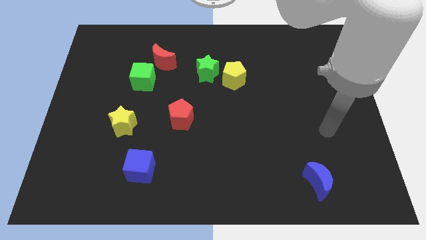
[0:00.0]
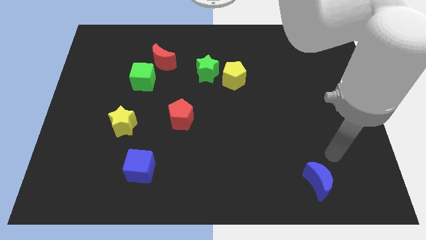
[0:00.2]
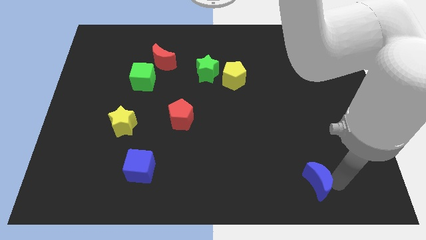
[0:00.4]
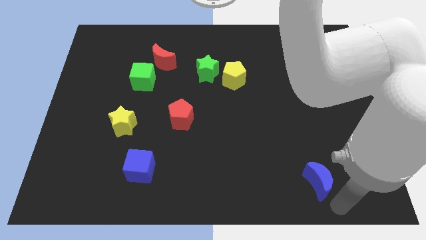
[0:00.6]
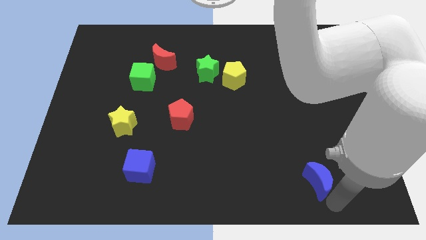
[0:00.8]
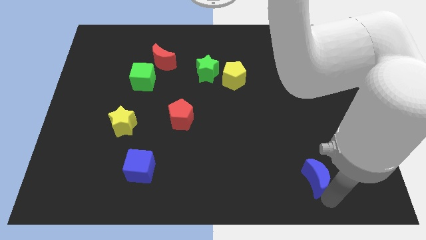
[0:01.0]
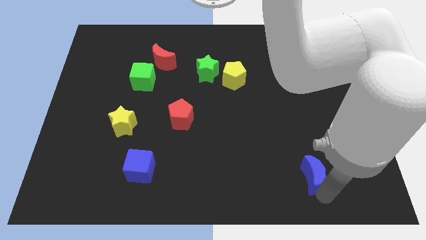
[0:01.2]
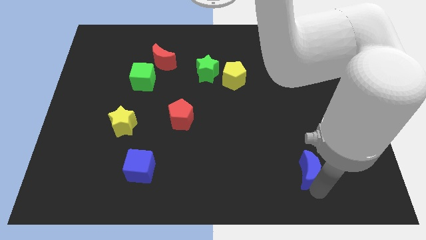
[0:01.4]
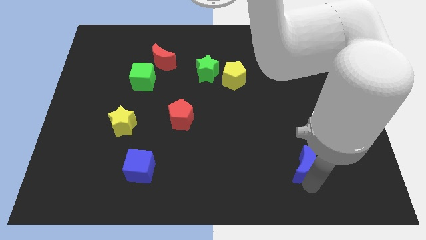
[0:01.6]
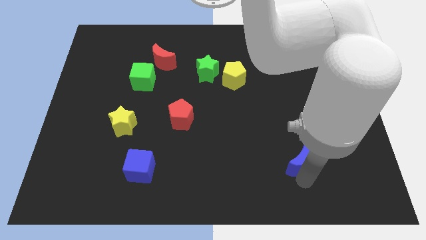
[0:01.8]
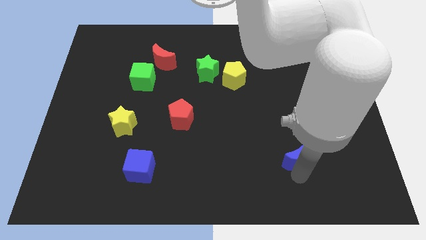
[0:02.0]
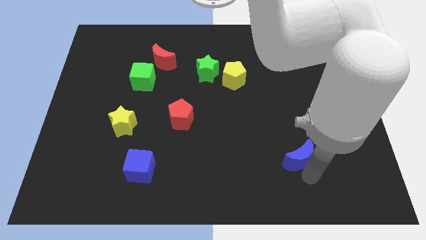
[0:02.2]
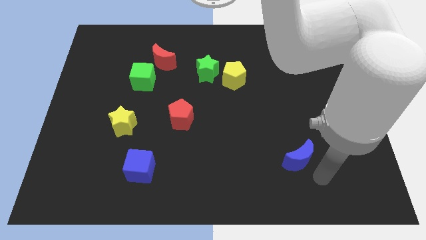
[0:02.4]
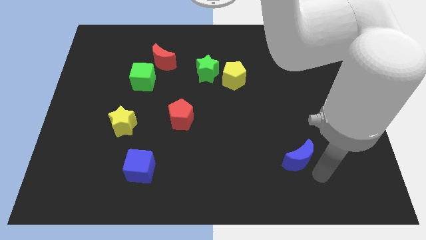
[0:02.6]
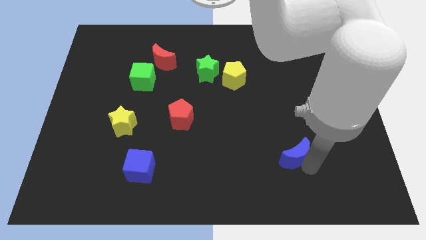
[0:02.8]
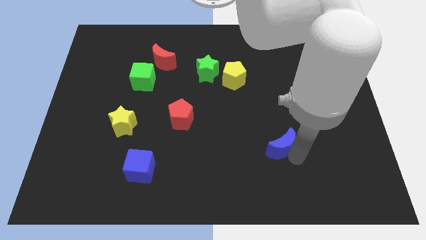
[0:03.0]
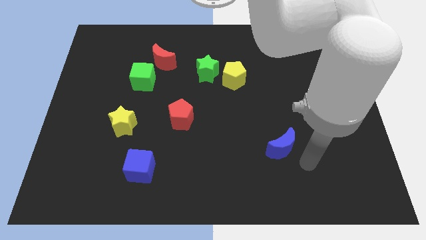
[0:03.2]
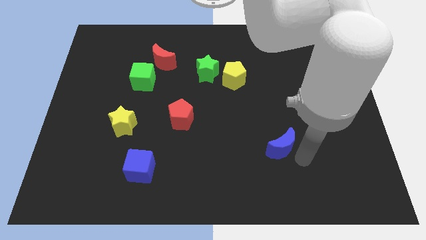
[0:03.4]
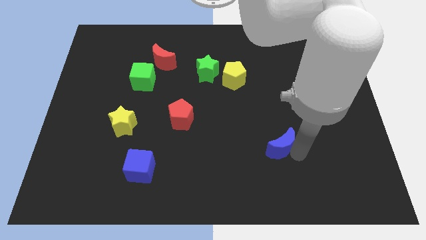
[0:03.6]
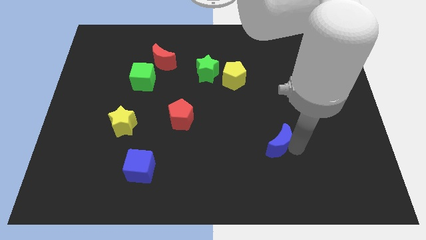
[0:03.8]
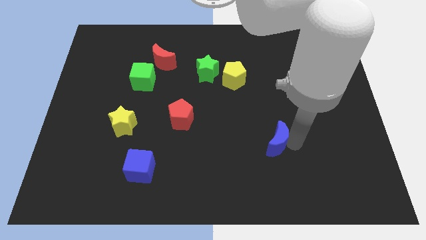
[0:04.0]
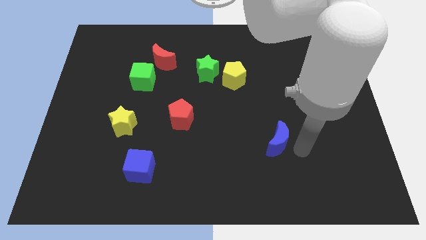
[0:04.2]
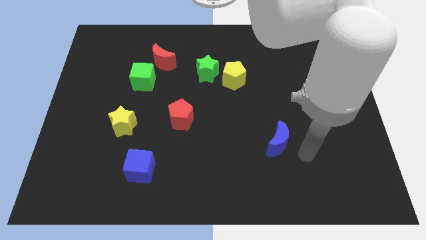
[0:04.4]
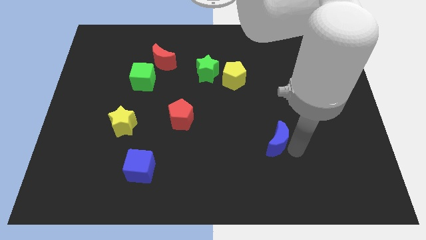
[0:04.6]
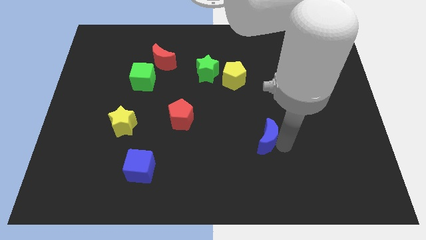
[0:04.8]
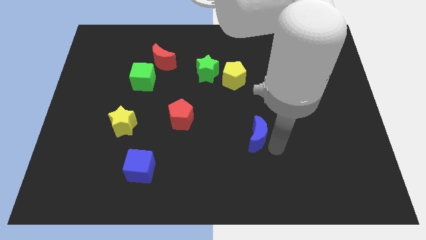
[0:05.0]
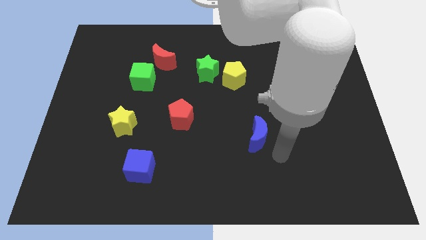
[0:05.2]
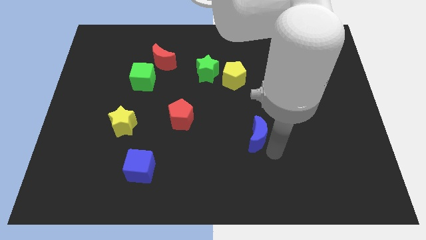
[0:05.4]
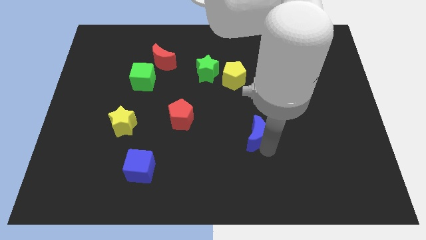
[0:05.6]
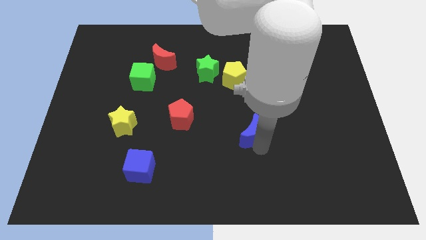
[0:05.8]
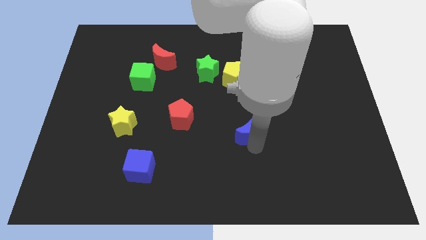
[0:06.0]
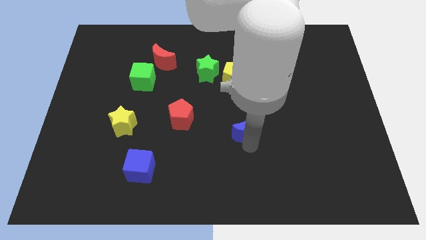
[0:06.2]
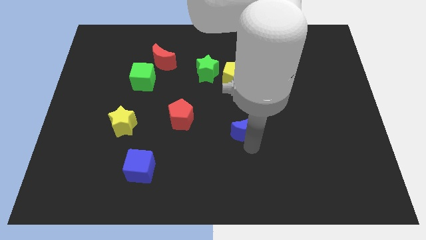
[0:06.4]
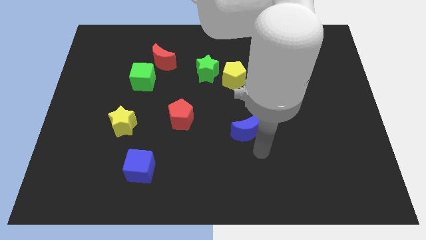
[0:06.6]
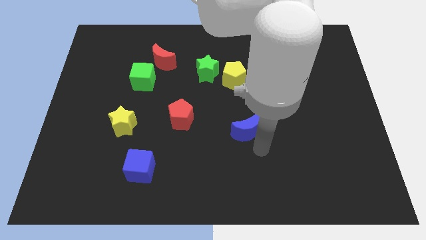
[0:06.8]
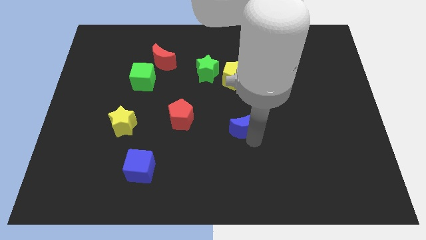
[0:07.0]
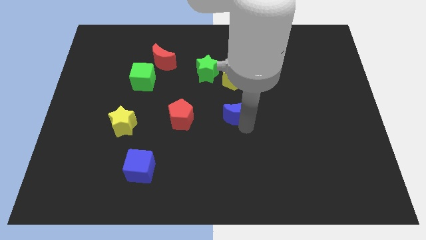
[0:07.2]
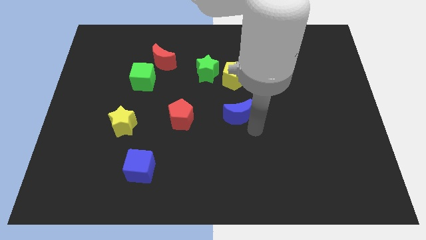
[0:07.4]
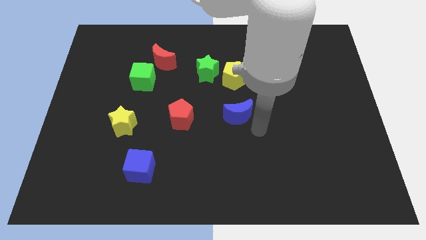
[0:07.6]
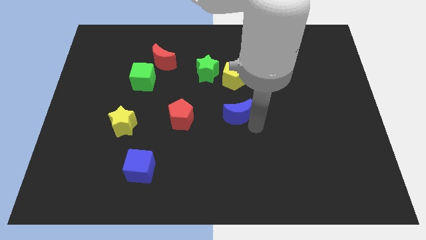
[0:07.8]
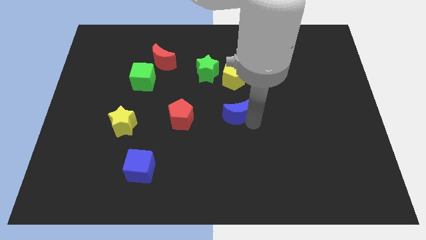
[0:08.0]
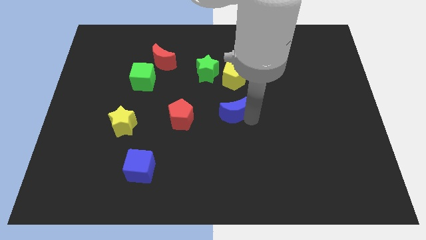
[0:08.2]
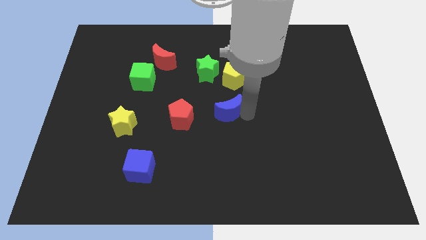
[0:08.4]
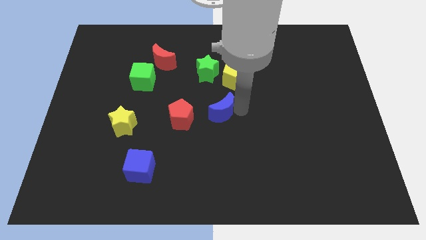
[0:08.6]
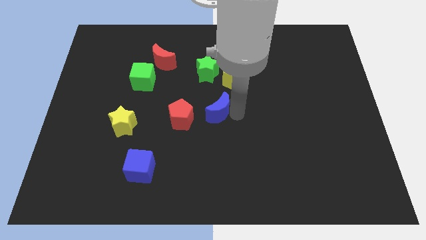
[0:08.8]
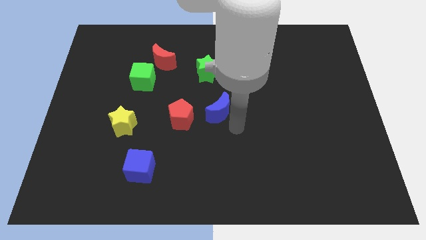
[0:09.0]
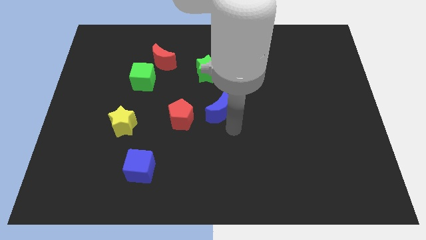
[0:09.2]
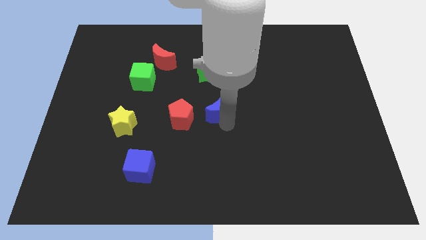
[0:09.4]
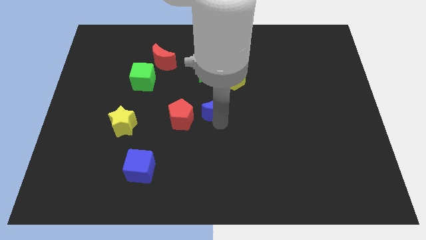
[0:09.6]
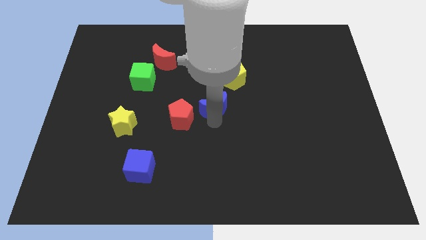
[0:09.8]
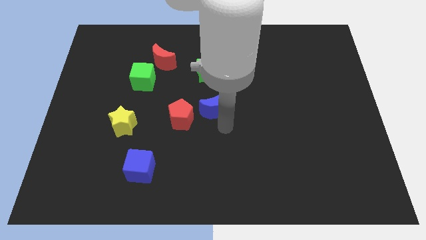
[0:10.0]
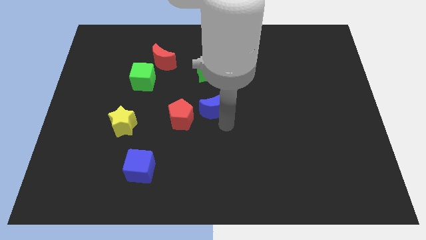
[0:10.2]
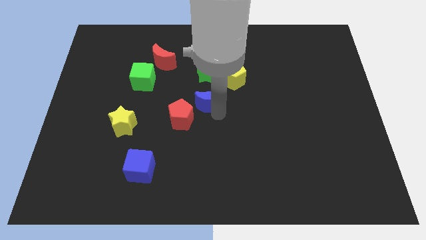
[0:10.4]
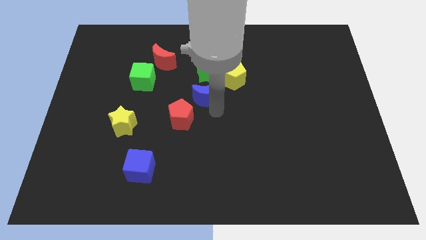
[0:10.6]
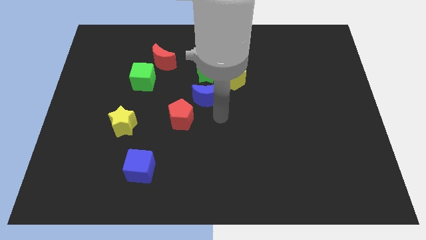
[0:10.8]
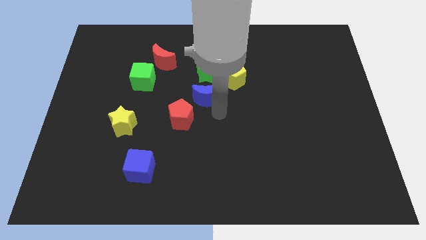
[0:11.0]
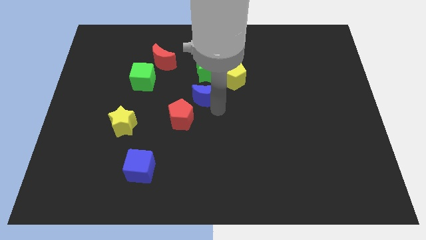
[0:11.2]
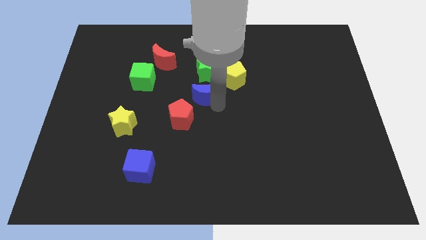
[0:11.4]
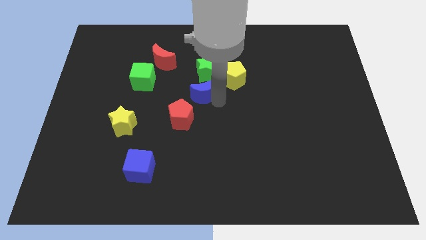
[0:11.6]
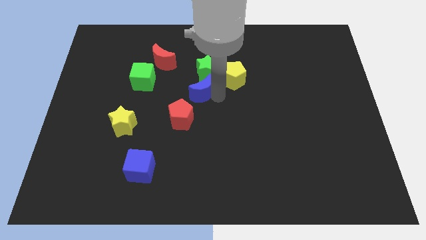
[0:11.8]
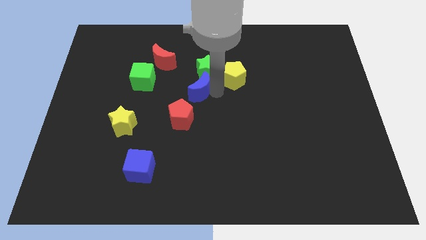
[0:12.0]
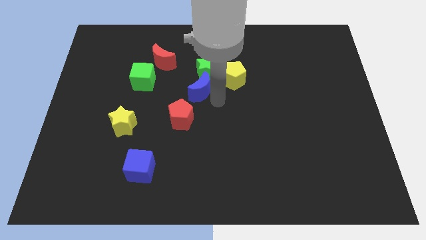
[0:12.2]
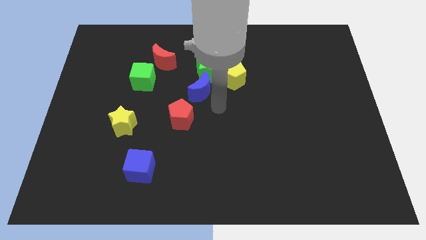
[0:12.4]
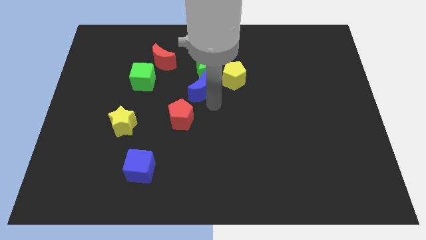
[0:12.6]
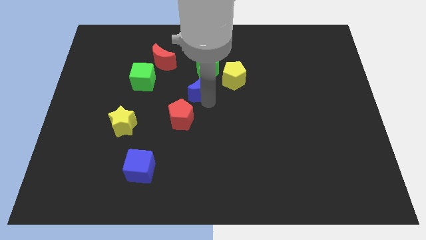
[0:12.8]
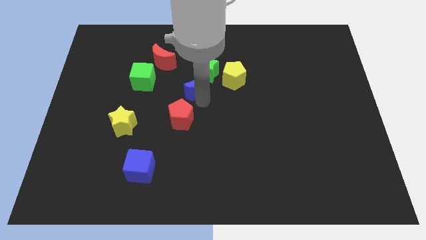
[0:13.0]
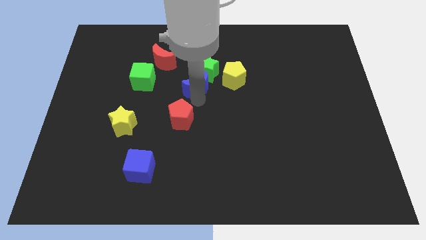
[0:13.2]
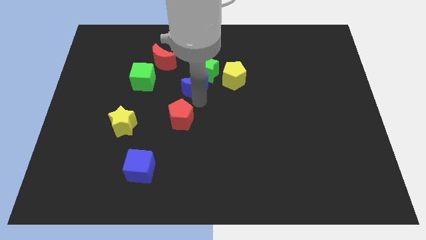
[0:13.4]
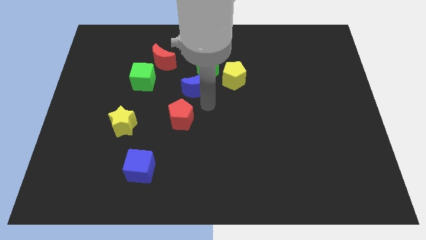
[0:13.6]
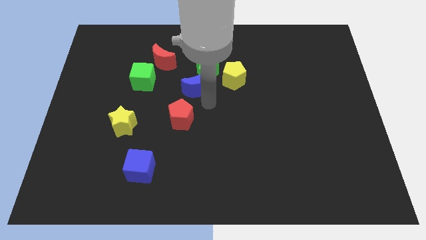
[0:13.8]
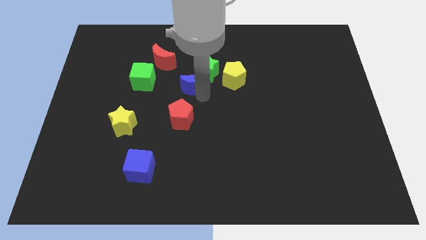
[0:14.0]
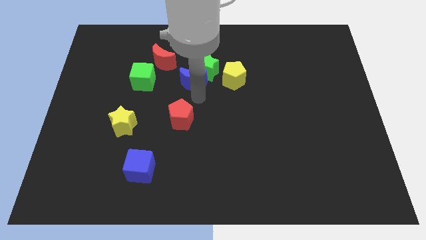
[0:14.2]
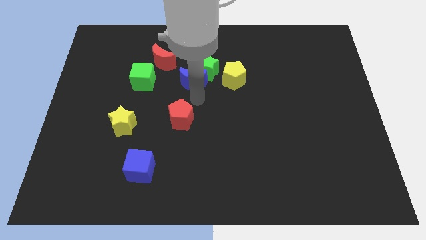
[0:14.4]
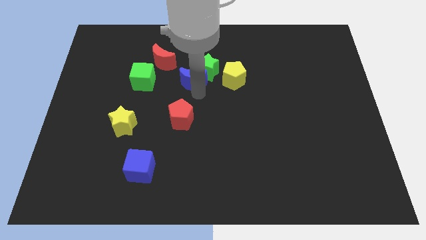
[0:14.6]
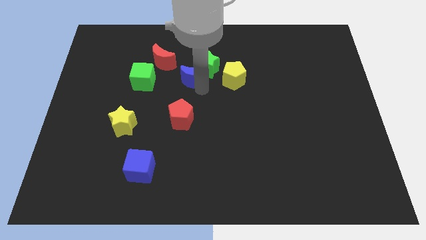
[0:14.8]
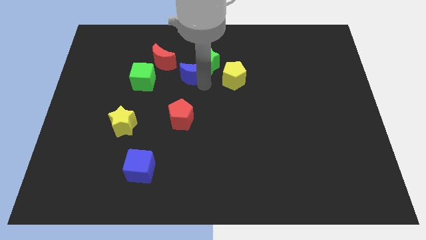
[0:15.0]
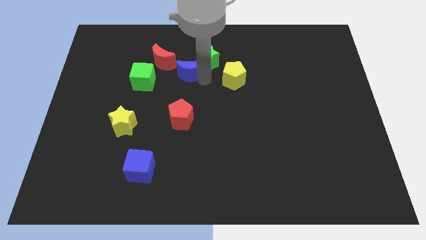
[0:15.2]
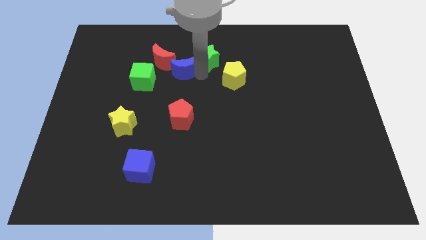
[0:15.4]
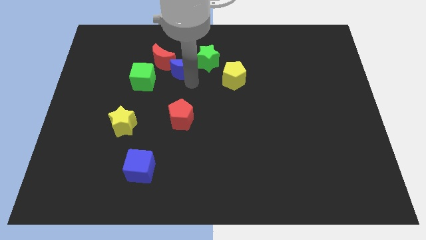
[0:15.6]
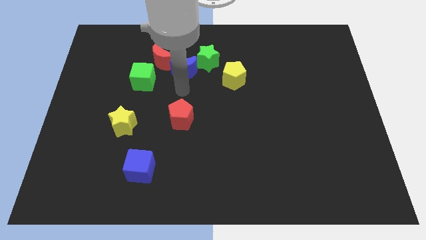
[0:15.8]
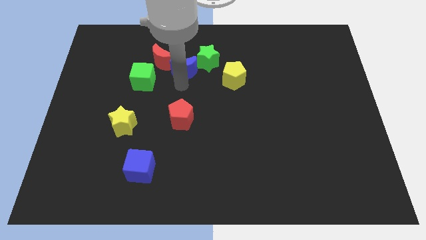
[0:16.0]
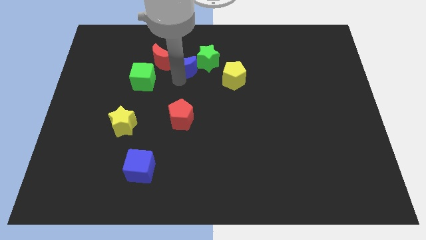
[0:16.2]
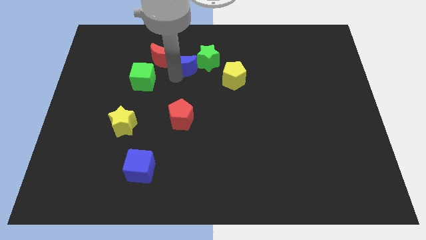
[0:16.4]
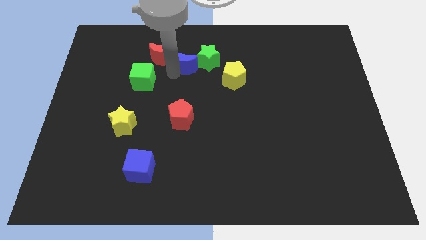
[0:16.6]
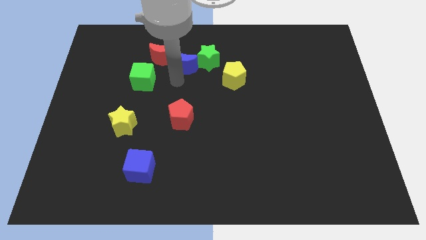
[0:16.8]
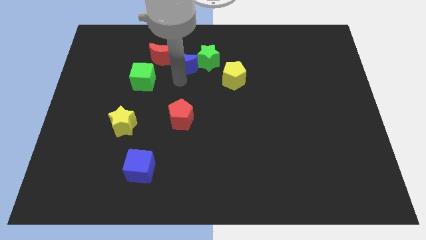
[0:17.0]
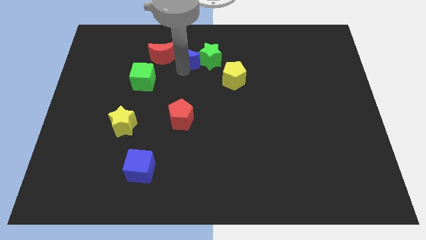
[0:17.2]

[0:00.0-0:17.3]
slide the blue moon to the top left side of the green star
